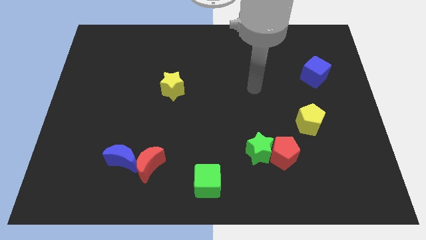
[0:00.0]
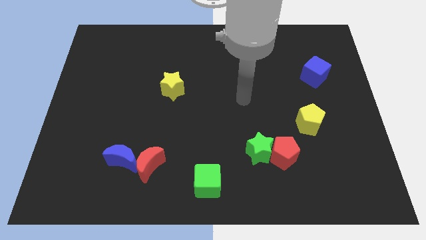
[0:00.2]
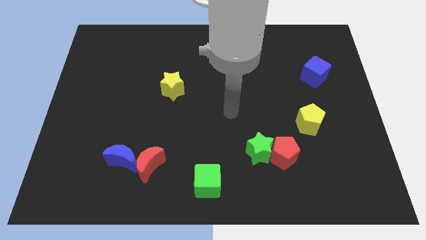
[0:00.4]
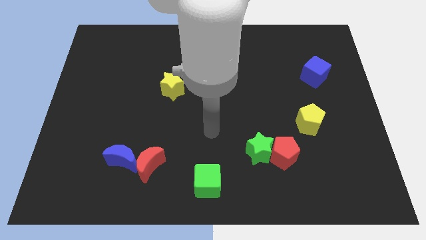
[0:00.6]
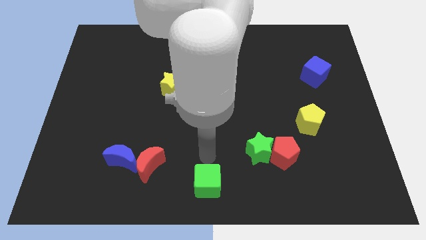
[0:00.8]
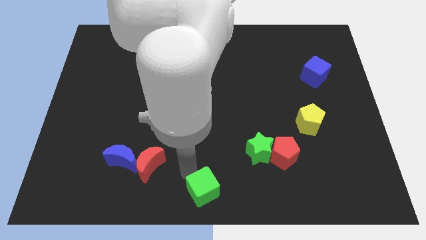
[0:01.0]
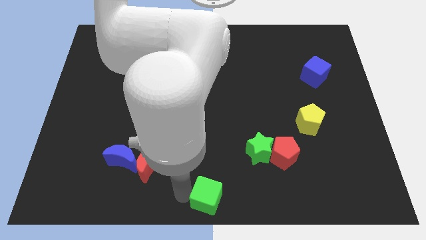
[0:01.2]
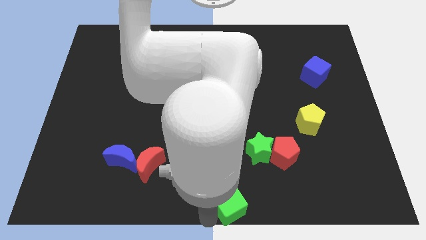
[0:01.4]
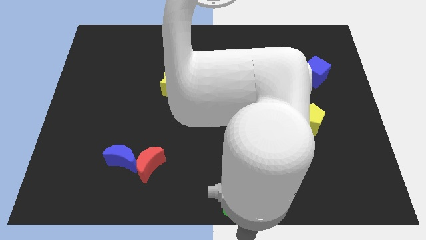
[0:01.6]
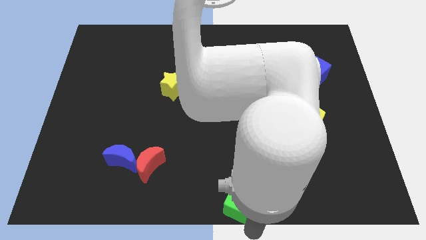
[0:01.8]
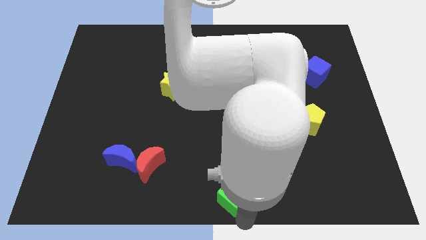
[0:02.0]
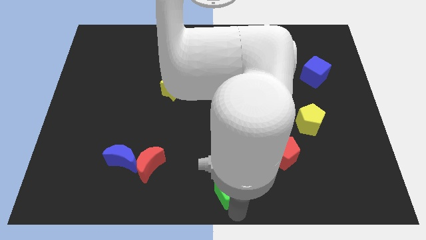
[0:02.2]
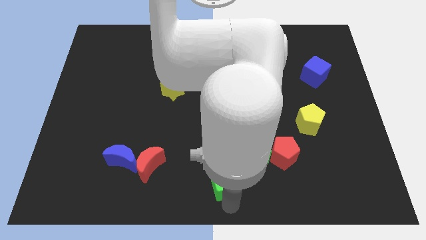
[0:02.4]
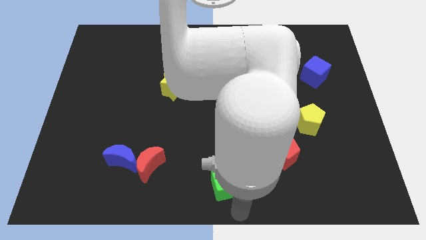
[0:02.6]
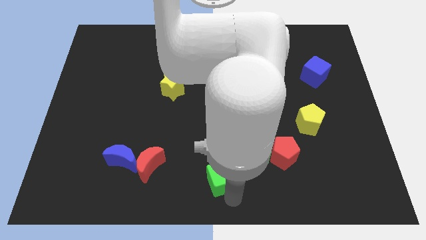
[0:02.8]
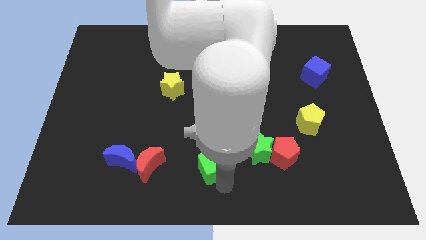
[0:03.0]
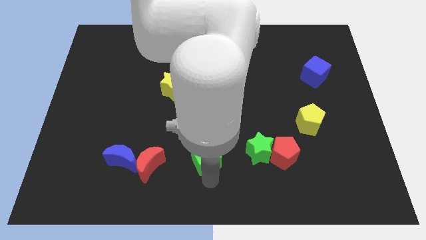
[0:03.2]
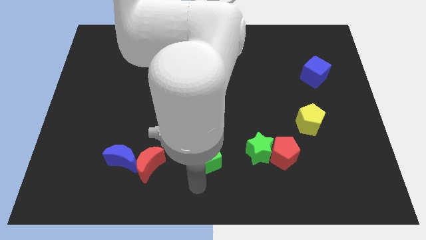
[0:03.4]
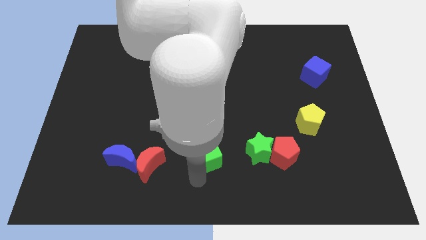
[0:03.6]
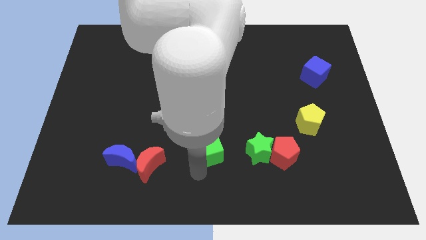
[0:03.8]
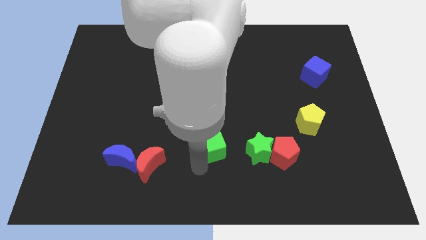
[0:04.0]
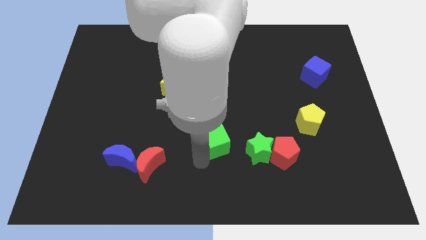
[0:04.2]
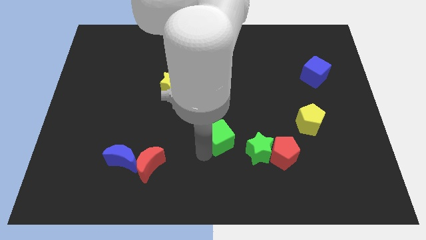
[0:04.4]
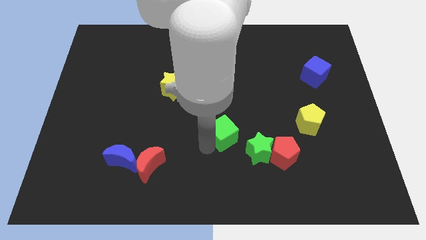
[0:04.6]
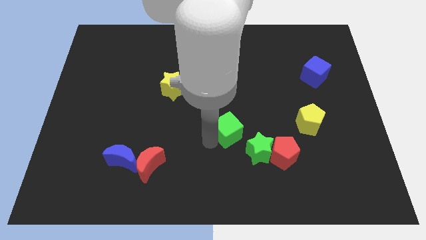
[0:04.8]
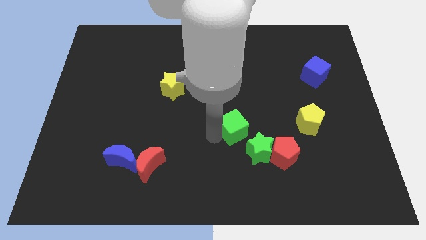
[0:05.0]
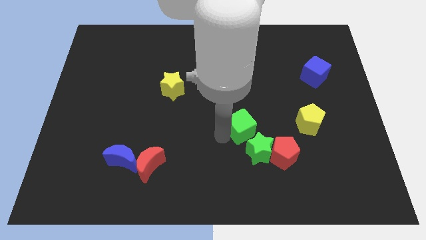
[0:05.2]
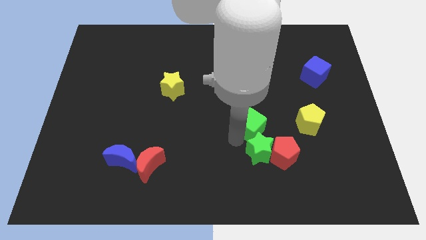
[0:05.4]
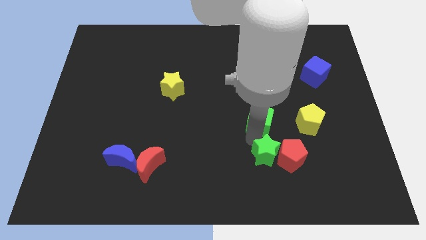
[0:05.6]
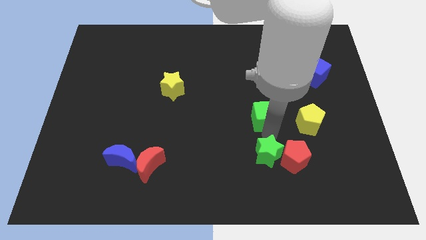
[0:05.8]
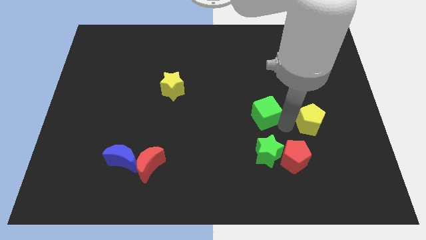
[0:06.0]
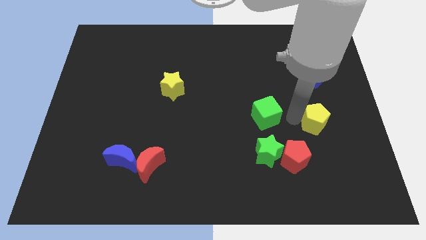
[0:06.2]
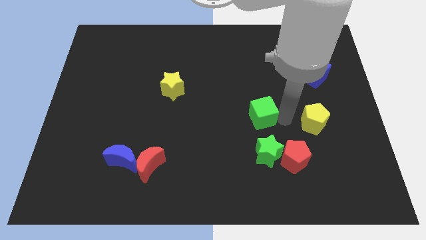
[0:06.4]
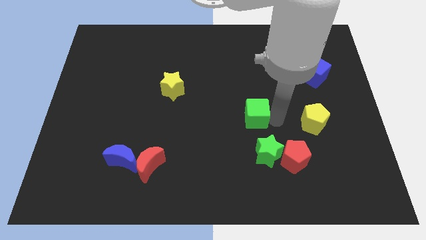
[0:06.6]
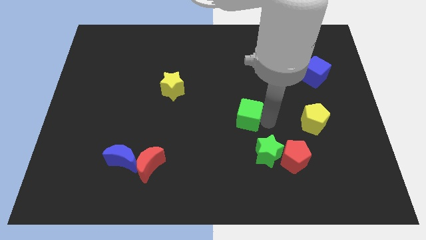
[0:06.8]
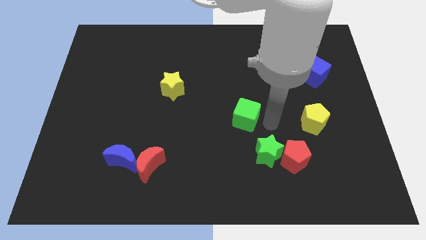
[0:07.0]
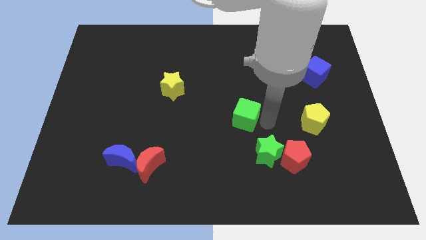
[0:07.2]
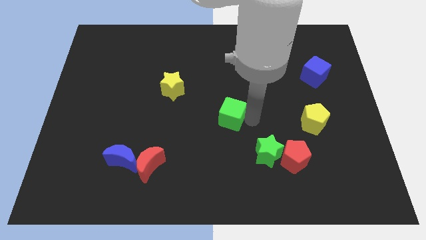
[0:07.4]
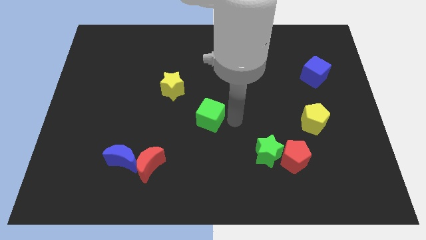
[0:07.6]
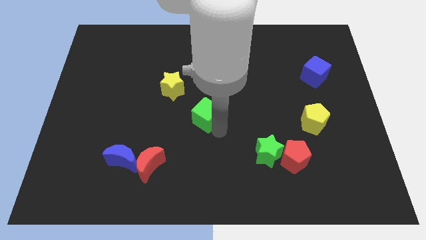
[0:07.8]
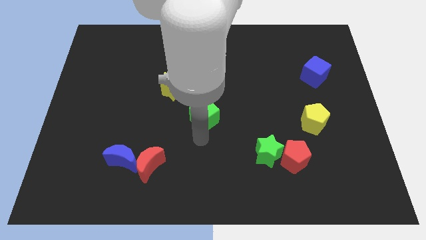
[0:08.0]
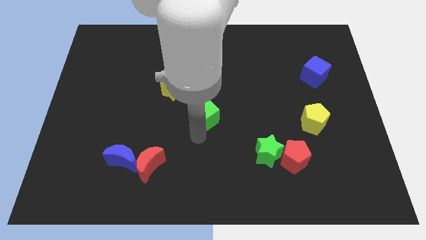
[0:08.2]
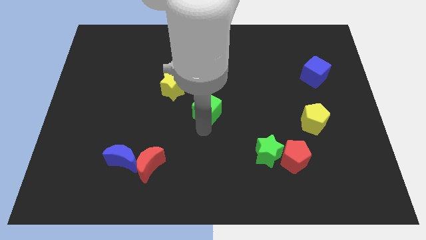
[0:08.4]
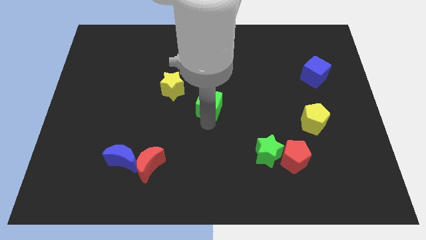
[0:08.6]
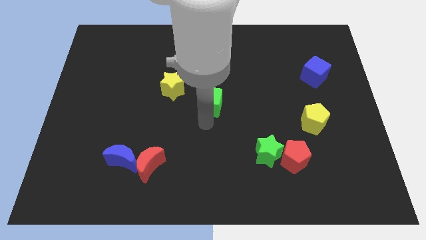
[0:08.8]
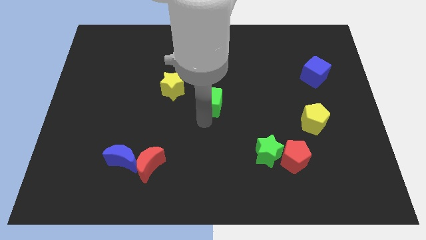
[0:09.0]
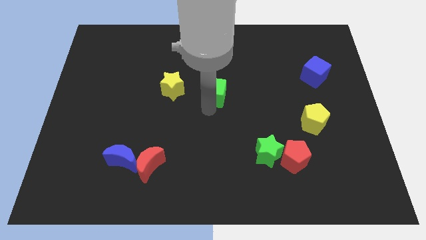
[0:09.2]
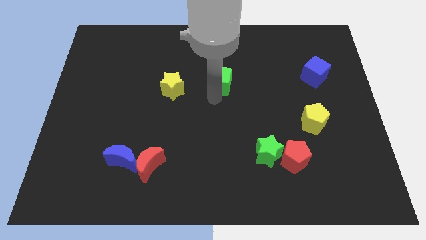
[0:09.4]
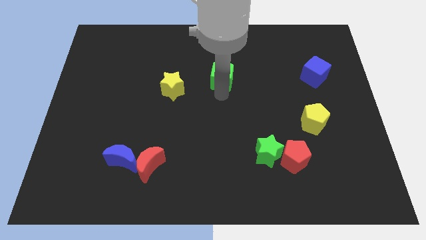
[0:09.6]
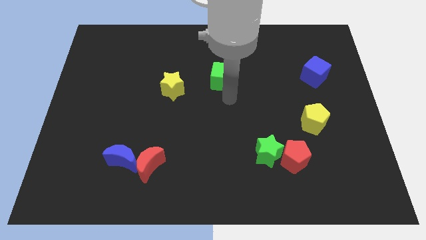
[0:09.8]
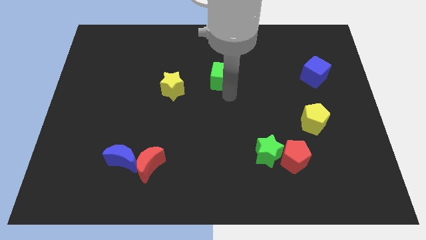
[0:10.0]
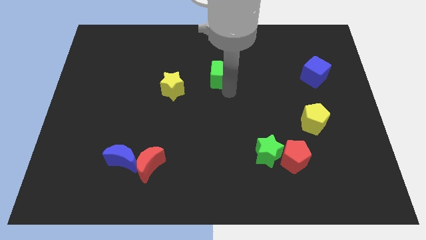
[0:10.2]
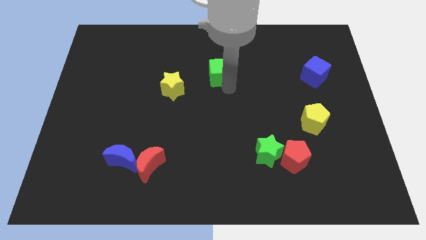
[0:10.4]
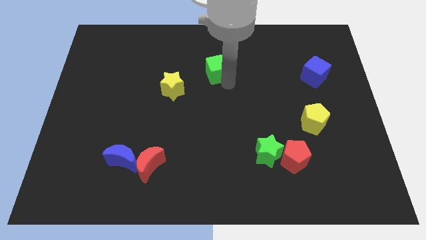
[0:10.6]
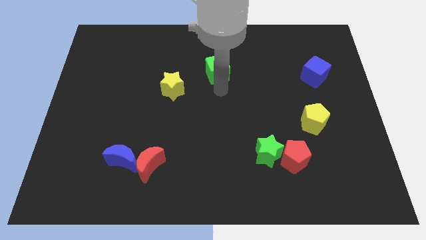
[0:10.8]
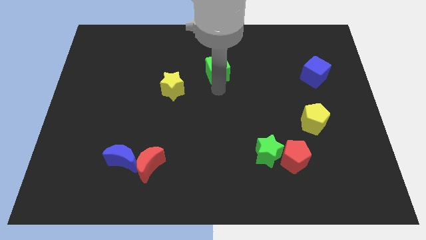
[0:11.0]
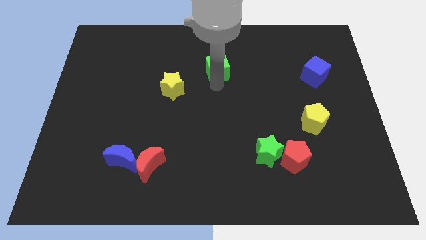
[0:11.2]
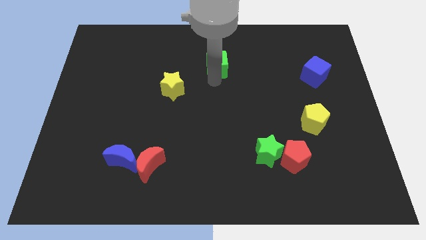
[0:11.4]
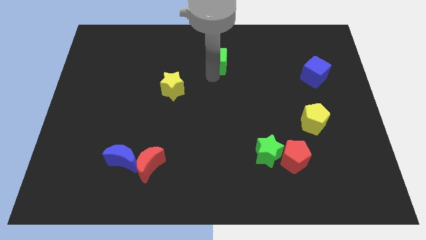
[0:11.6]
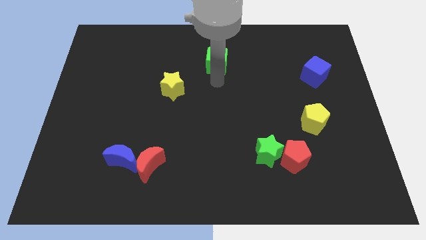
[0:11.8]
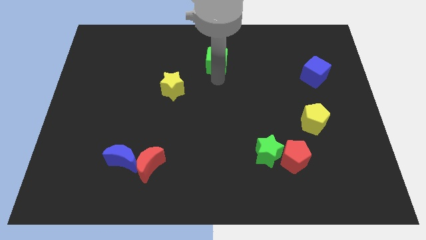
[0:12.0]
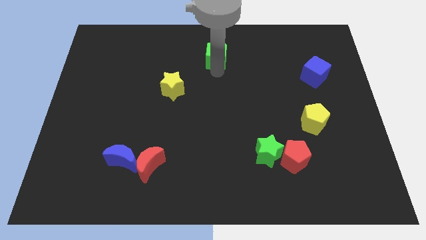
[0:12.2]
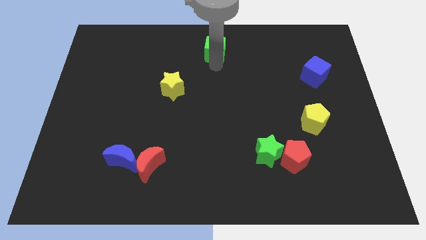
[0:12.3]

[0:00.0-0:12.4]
push the green cube to the top side

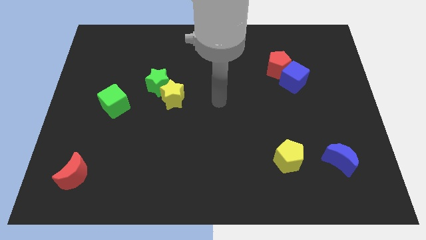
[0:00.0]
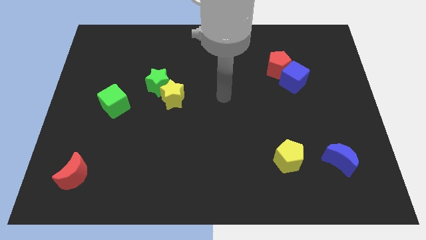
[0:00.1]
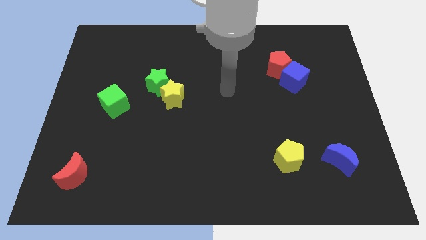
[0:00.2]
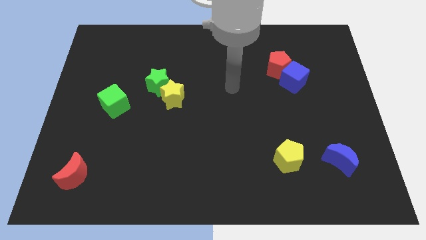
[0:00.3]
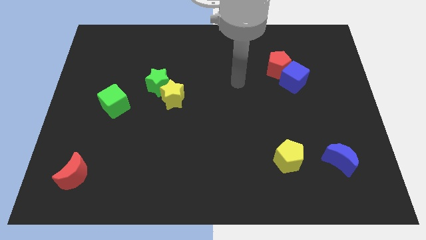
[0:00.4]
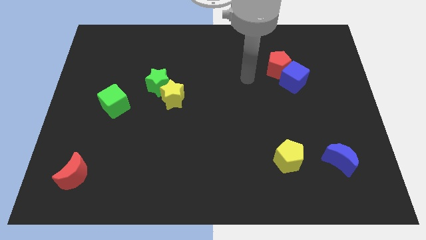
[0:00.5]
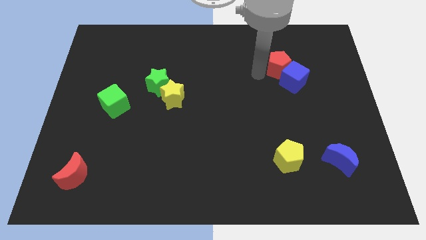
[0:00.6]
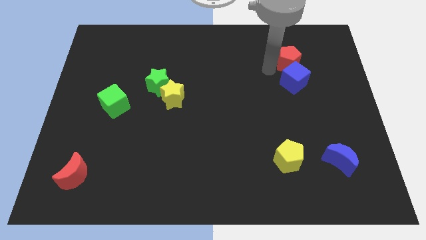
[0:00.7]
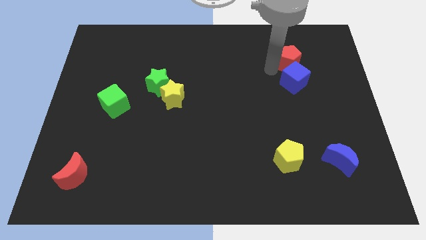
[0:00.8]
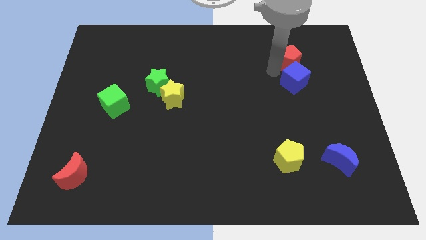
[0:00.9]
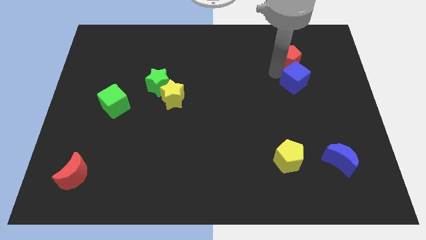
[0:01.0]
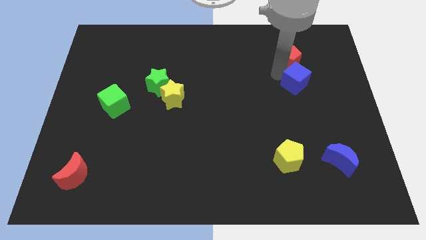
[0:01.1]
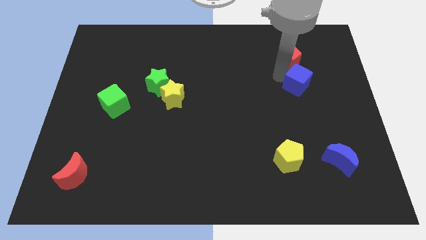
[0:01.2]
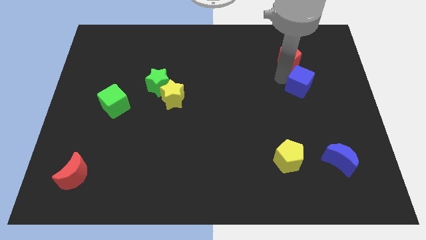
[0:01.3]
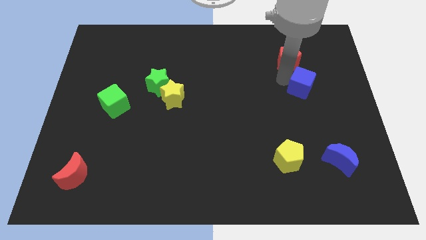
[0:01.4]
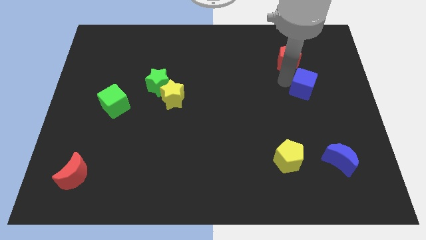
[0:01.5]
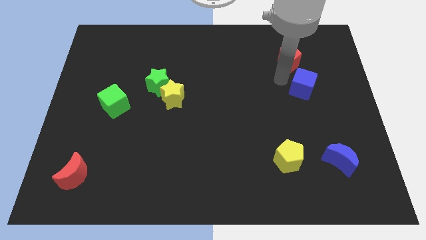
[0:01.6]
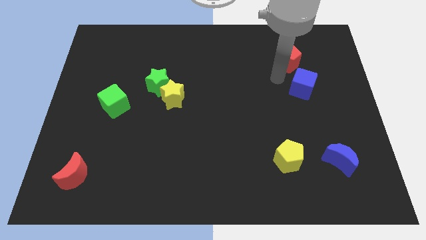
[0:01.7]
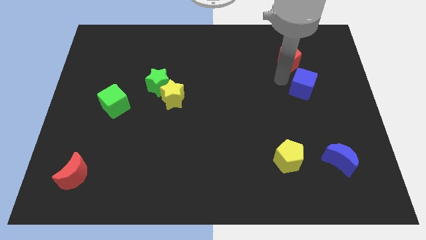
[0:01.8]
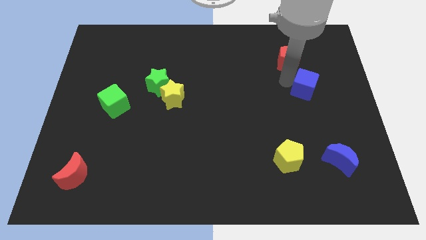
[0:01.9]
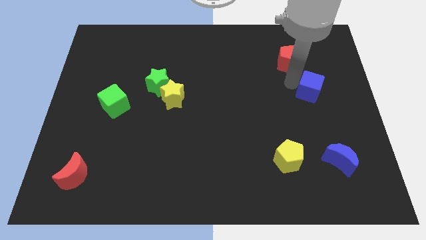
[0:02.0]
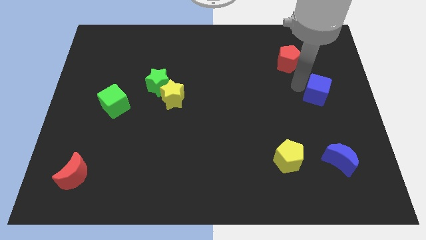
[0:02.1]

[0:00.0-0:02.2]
slide the blue cube to the right side of the board
